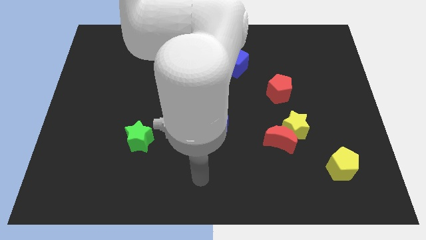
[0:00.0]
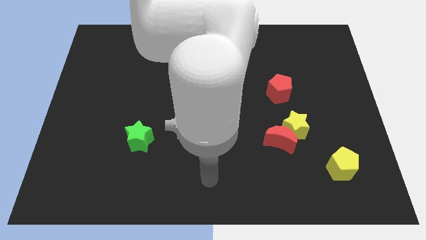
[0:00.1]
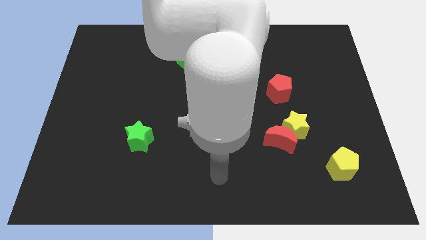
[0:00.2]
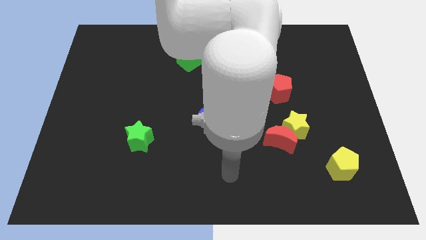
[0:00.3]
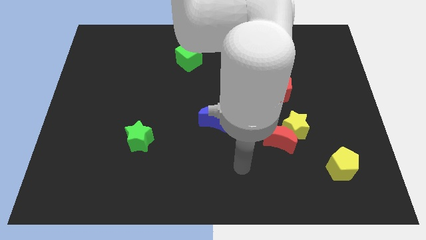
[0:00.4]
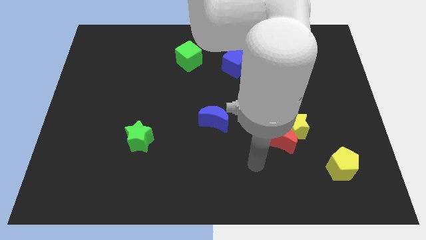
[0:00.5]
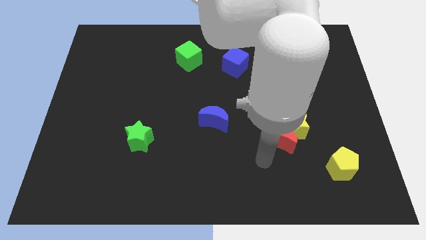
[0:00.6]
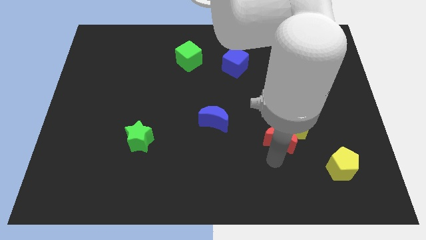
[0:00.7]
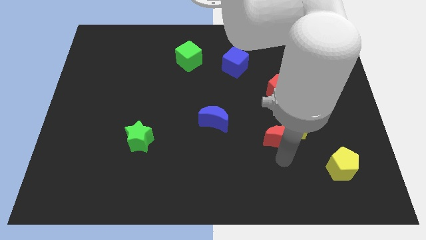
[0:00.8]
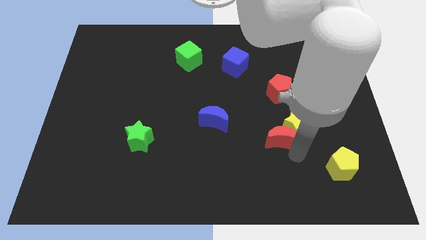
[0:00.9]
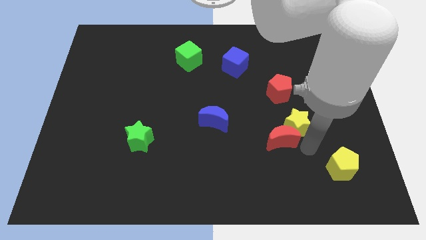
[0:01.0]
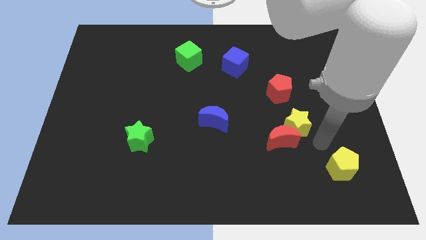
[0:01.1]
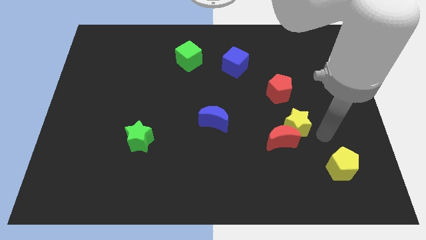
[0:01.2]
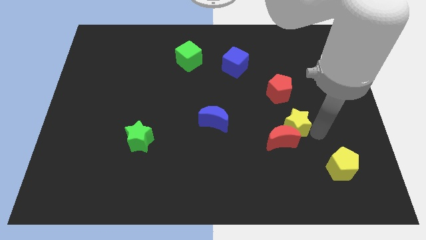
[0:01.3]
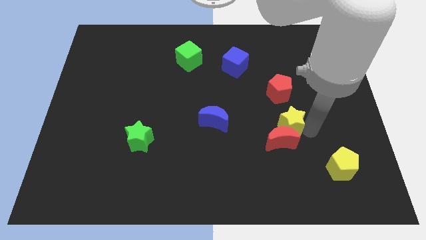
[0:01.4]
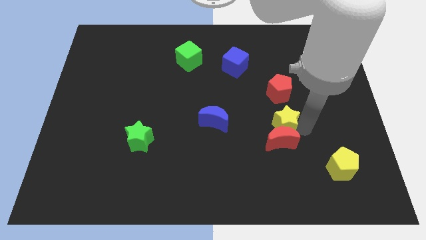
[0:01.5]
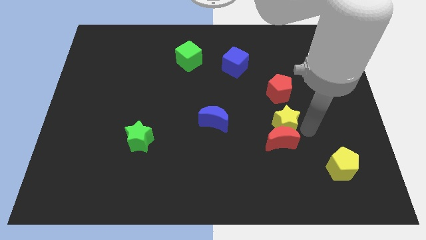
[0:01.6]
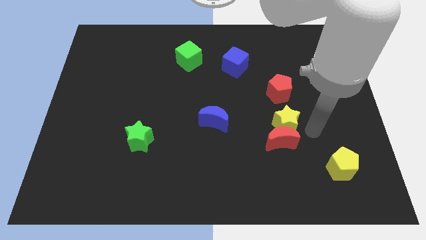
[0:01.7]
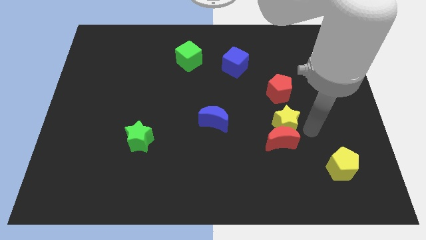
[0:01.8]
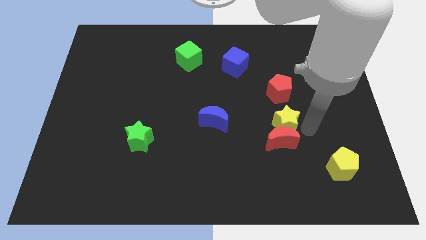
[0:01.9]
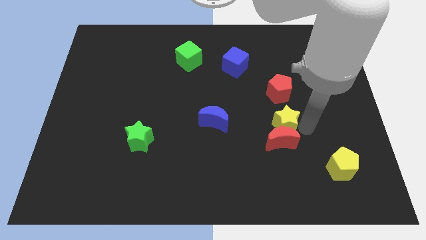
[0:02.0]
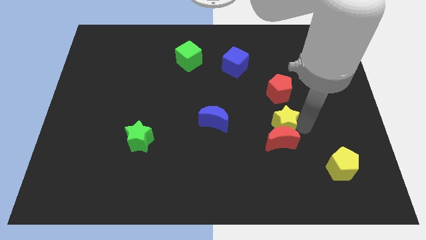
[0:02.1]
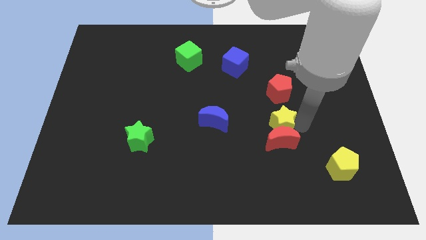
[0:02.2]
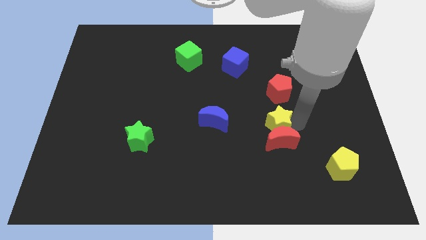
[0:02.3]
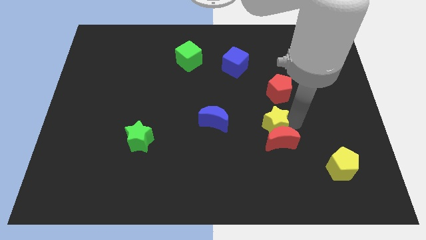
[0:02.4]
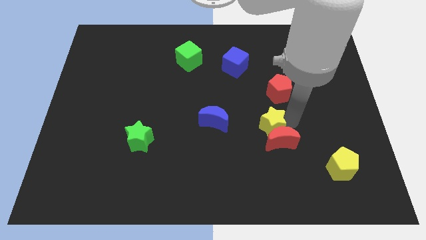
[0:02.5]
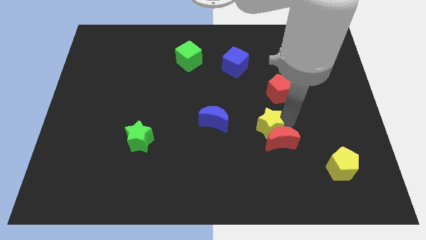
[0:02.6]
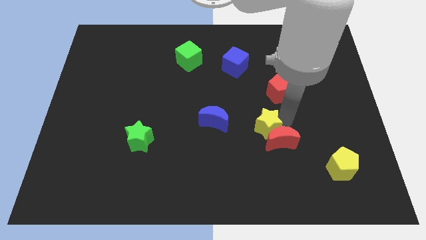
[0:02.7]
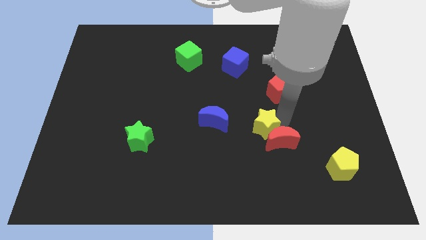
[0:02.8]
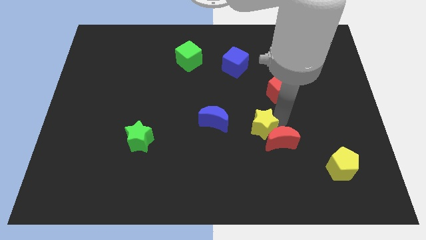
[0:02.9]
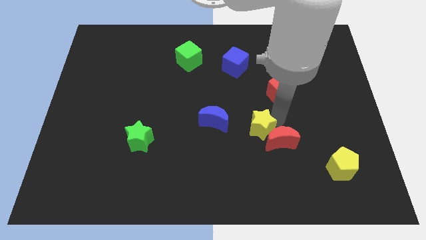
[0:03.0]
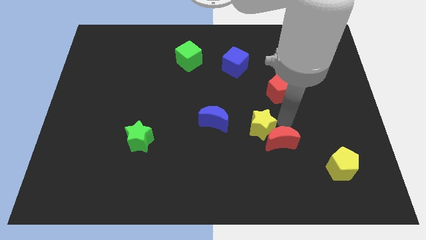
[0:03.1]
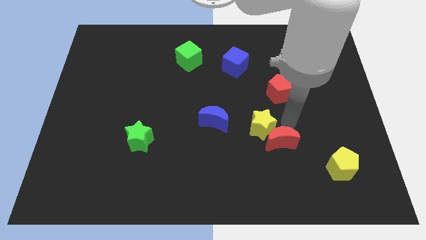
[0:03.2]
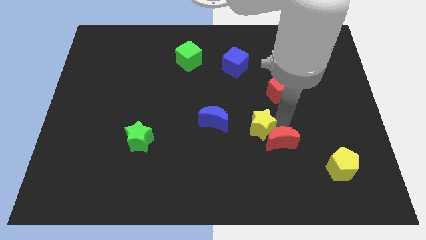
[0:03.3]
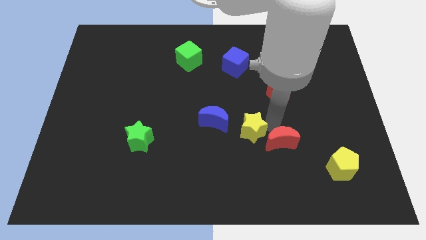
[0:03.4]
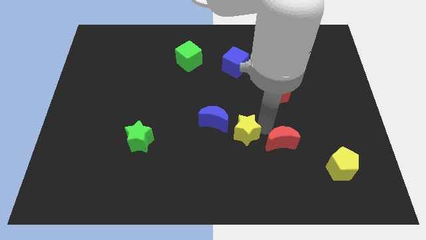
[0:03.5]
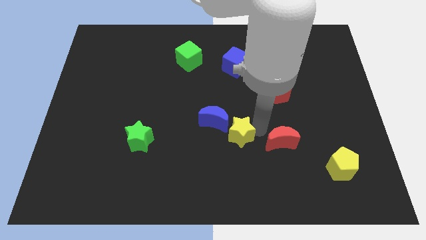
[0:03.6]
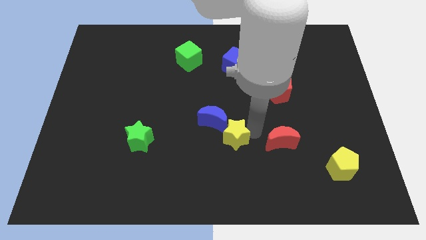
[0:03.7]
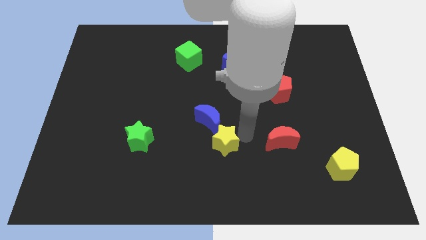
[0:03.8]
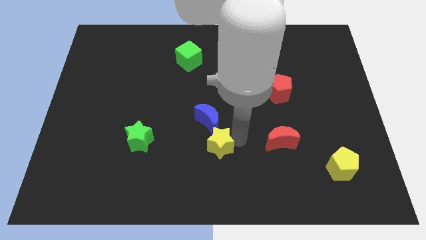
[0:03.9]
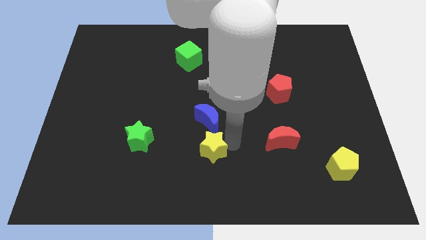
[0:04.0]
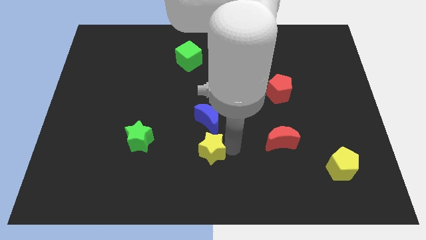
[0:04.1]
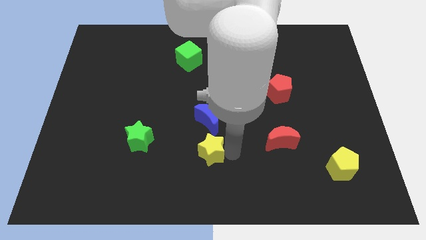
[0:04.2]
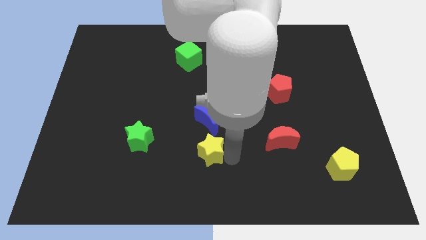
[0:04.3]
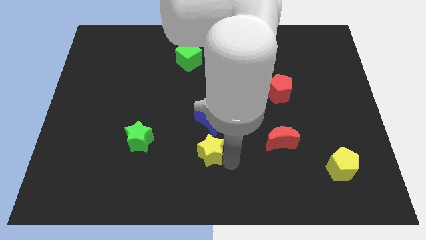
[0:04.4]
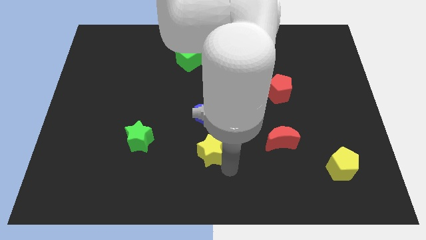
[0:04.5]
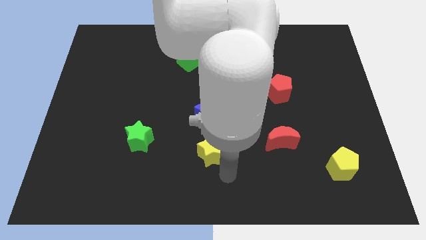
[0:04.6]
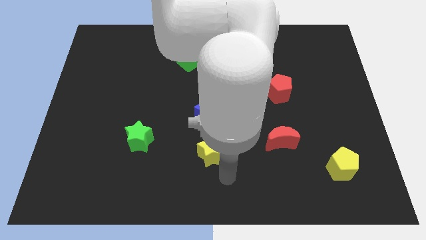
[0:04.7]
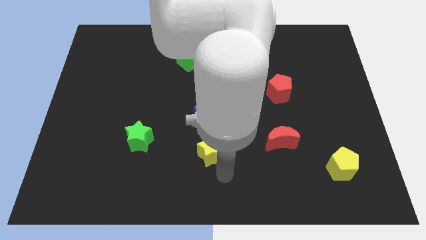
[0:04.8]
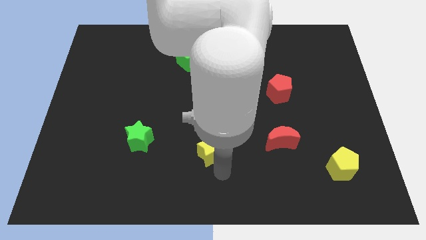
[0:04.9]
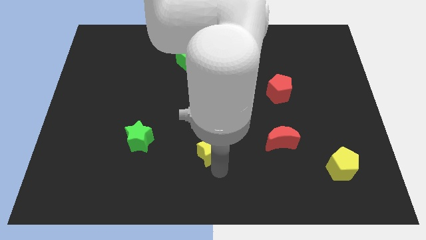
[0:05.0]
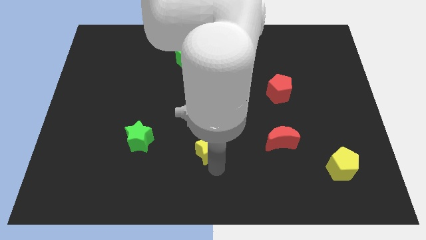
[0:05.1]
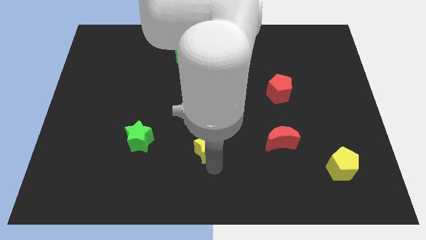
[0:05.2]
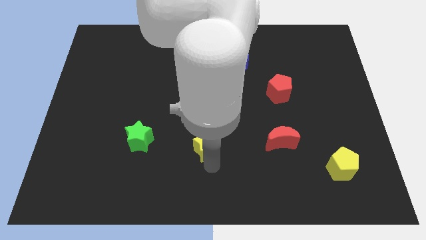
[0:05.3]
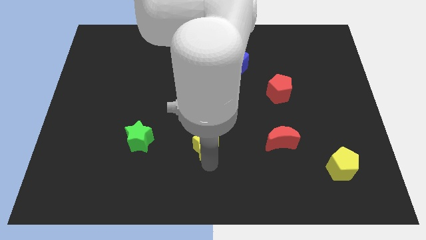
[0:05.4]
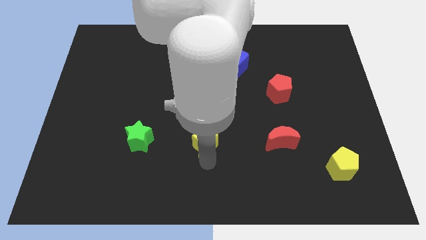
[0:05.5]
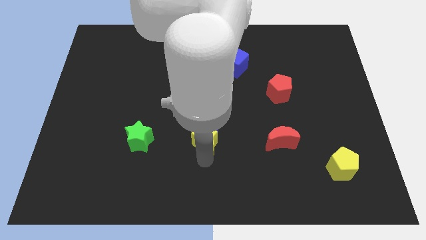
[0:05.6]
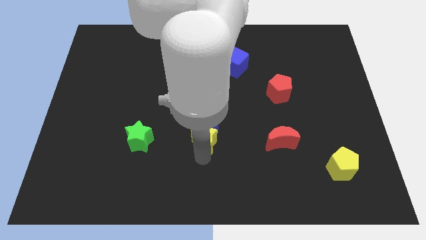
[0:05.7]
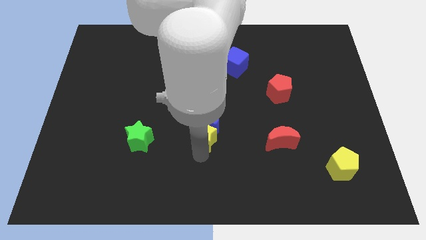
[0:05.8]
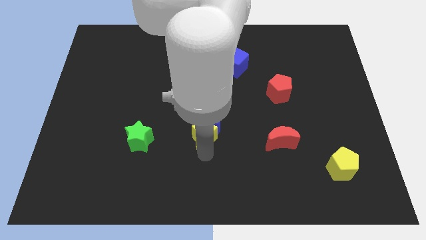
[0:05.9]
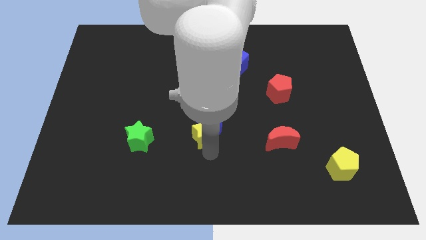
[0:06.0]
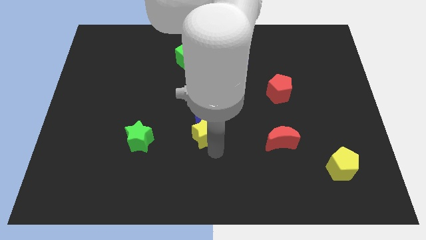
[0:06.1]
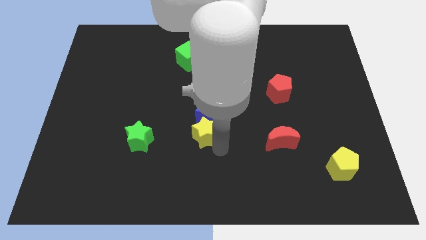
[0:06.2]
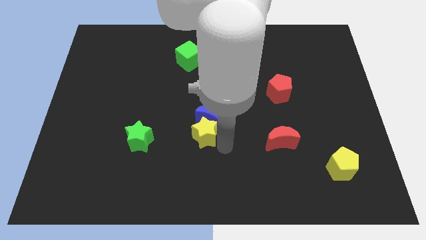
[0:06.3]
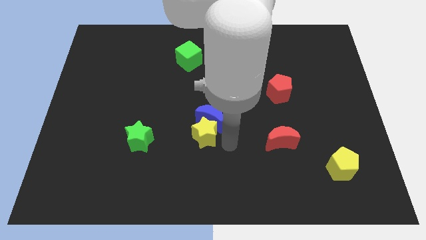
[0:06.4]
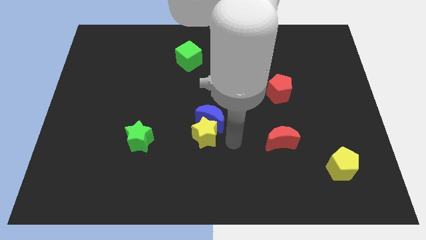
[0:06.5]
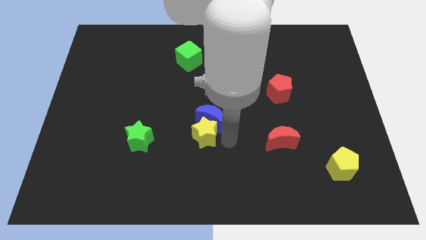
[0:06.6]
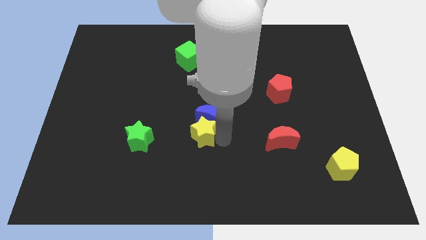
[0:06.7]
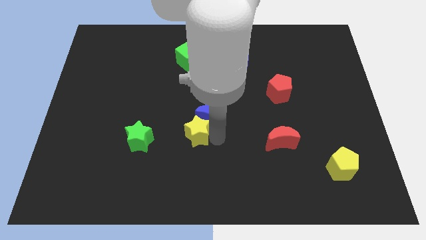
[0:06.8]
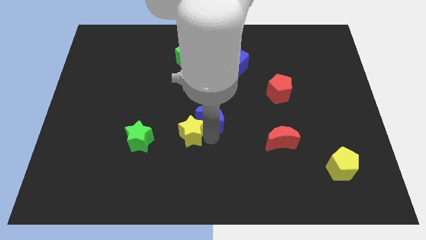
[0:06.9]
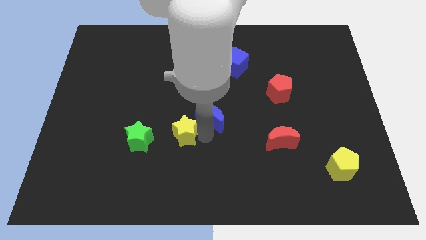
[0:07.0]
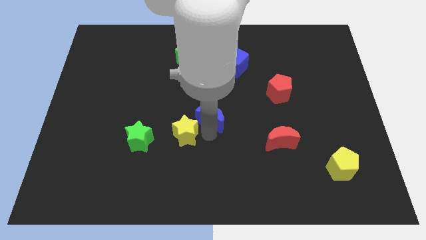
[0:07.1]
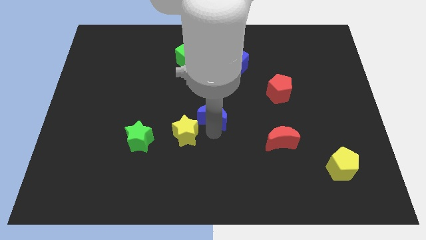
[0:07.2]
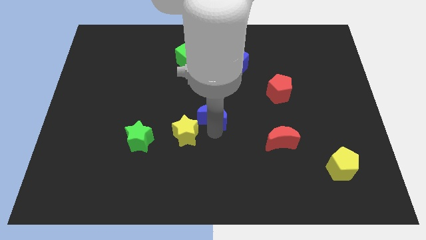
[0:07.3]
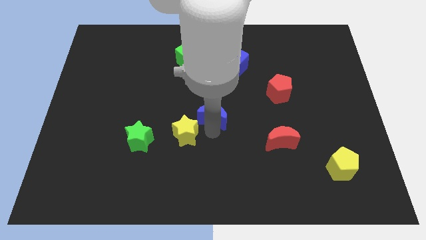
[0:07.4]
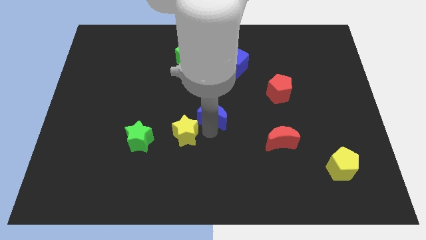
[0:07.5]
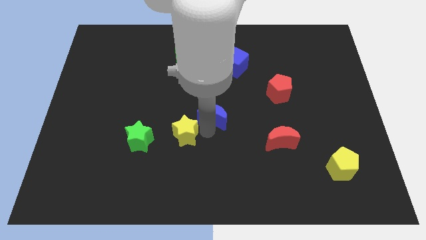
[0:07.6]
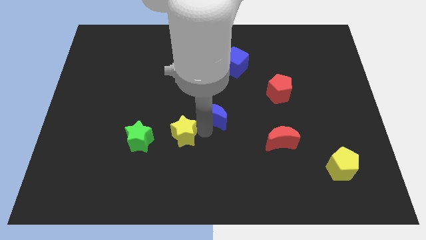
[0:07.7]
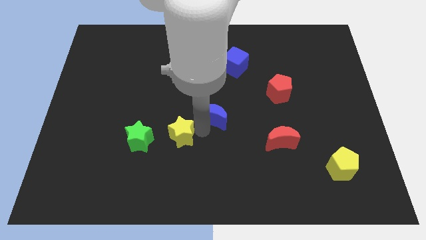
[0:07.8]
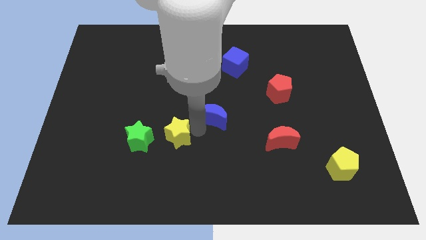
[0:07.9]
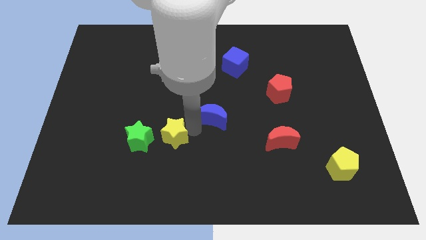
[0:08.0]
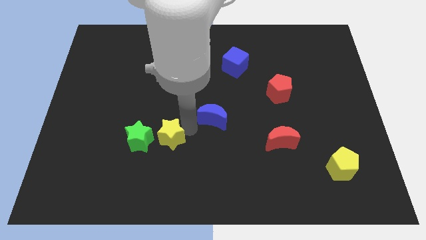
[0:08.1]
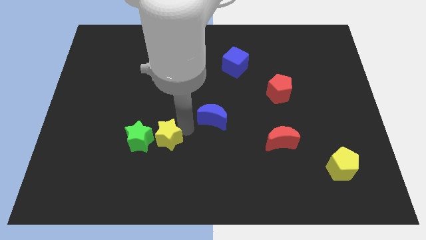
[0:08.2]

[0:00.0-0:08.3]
put the yellow star next to the green star

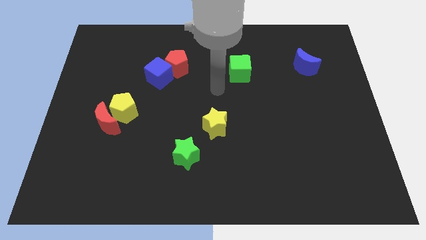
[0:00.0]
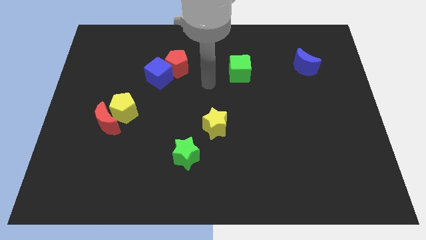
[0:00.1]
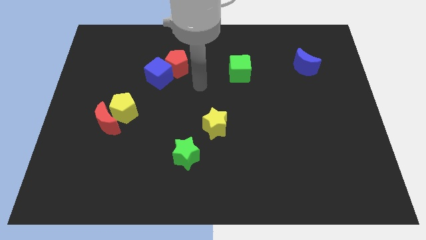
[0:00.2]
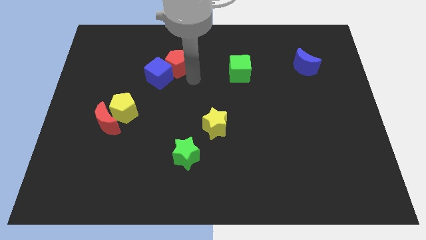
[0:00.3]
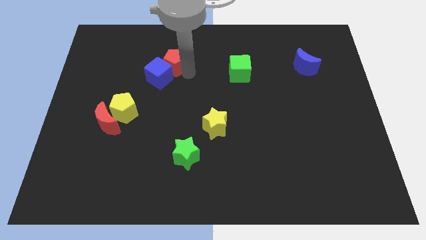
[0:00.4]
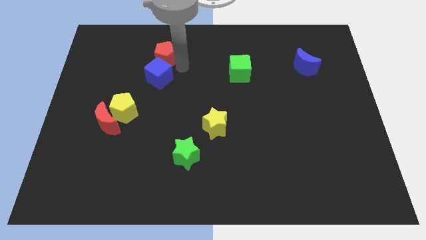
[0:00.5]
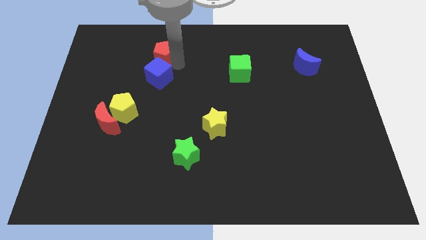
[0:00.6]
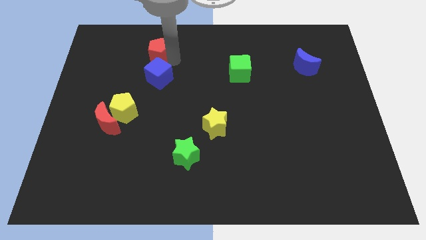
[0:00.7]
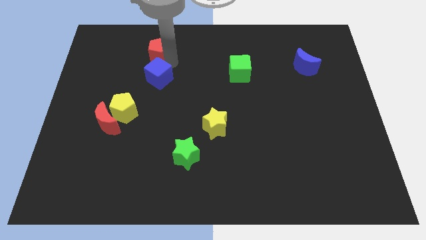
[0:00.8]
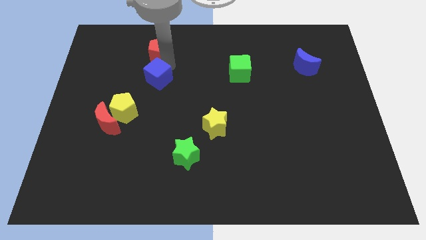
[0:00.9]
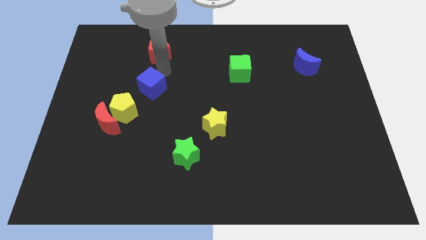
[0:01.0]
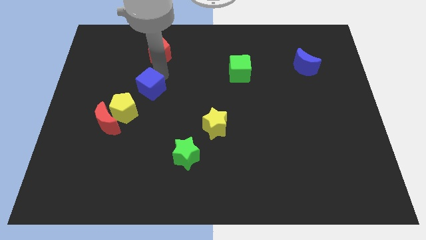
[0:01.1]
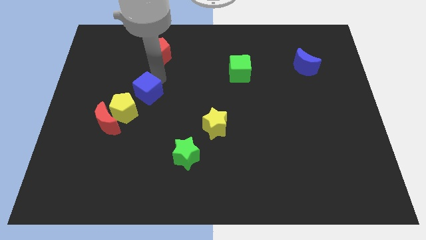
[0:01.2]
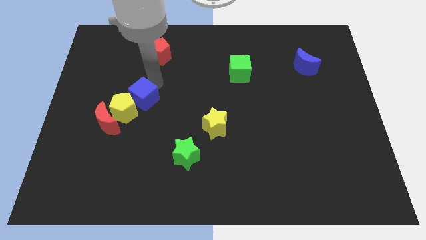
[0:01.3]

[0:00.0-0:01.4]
slide the blue cube close to the yellow pentagon
